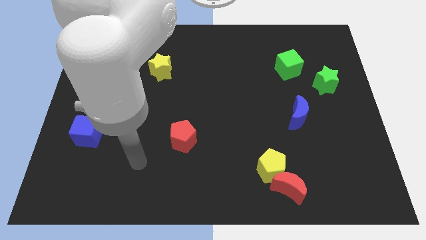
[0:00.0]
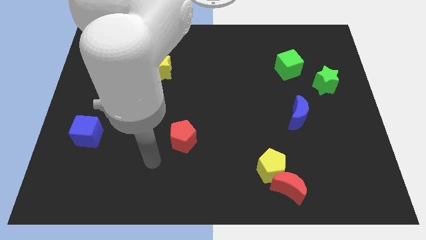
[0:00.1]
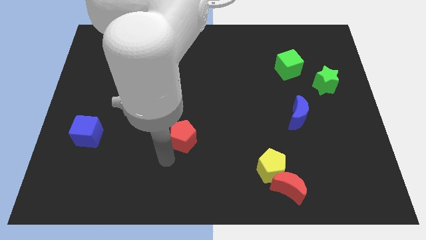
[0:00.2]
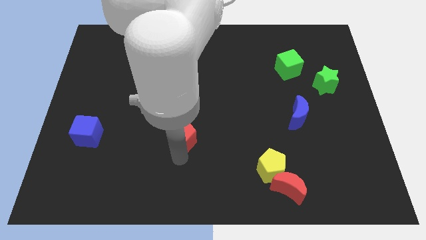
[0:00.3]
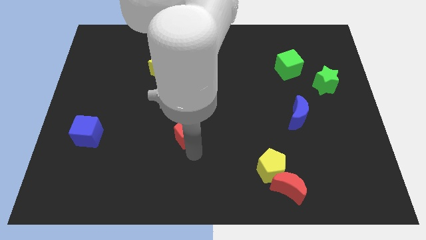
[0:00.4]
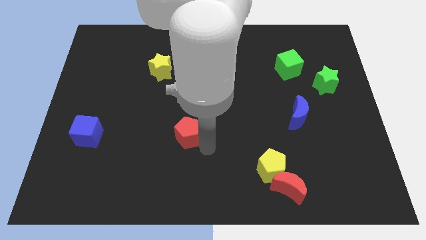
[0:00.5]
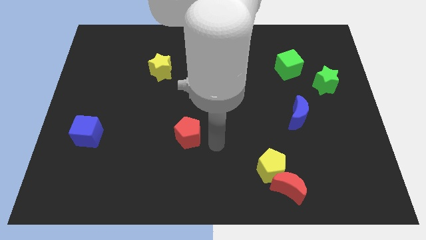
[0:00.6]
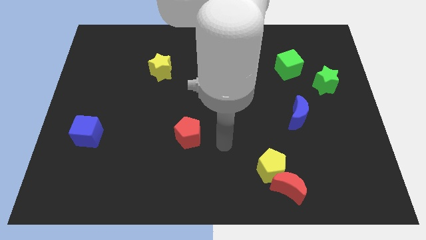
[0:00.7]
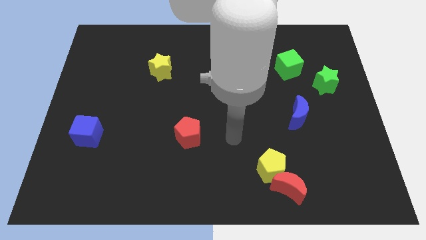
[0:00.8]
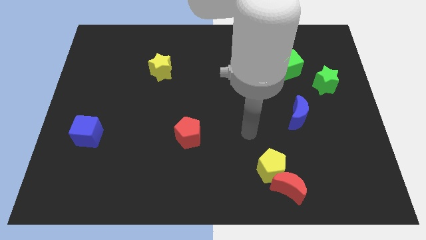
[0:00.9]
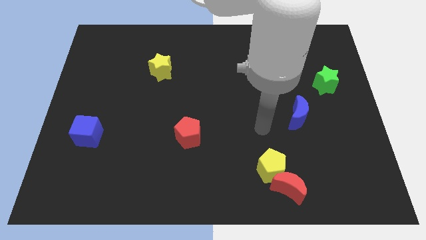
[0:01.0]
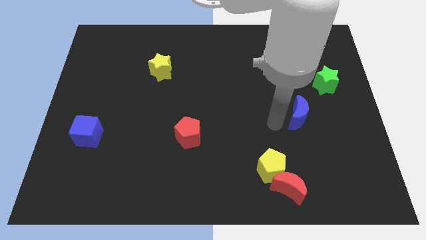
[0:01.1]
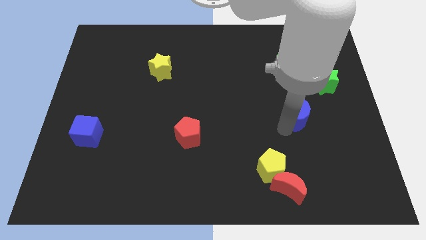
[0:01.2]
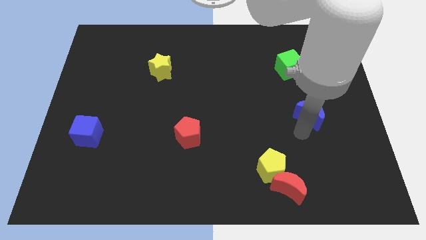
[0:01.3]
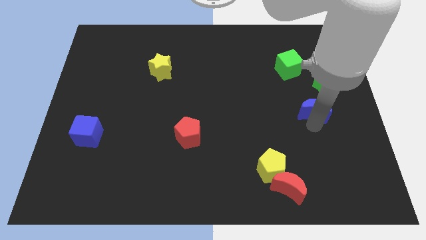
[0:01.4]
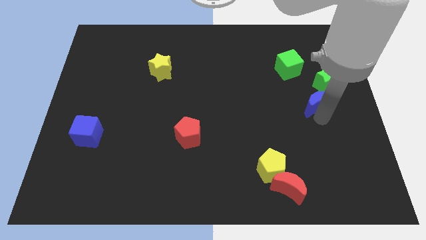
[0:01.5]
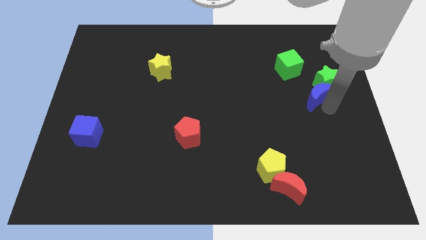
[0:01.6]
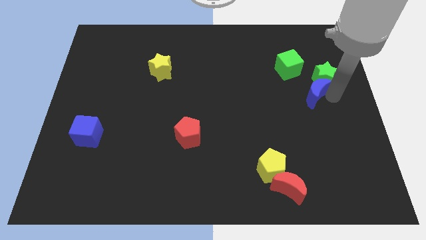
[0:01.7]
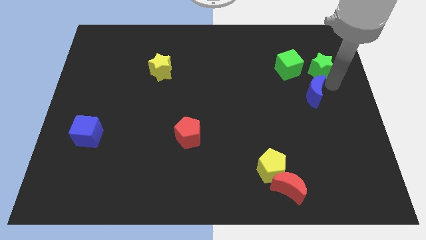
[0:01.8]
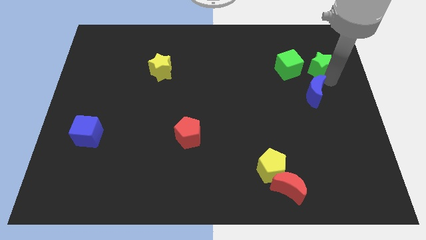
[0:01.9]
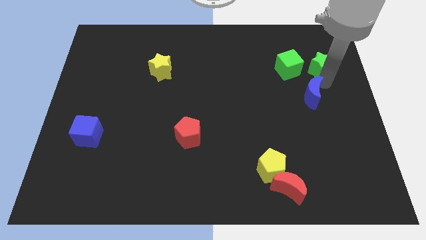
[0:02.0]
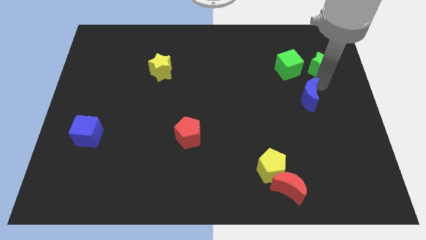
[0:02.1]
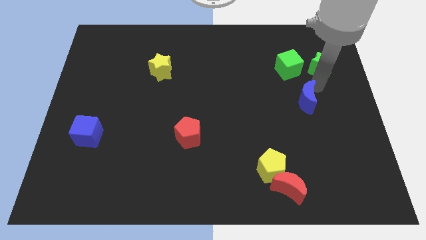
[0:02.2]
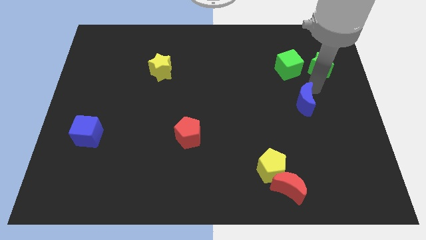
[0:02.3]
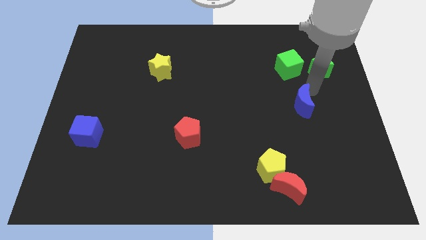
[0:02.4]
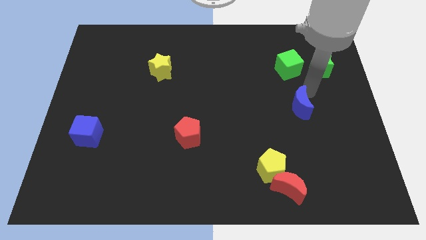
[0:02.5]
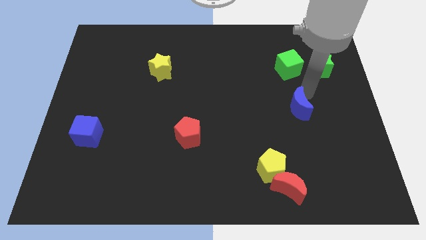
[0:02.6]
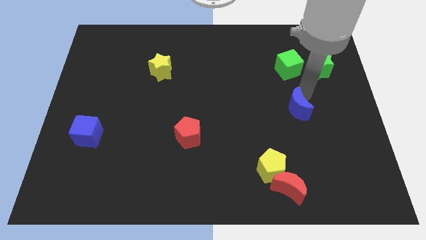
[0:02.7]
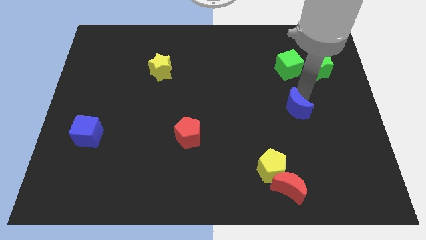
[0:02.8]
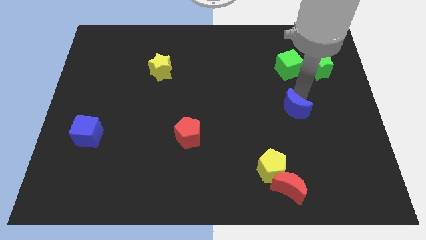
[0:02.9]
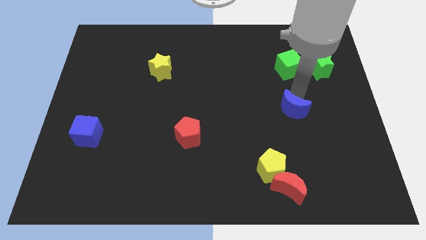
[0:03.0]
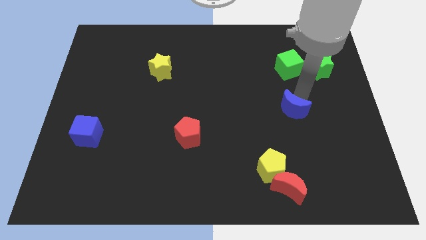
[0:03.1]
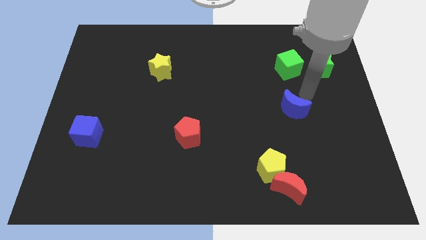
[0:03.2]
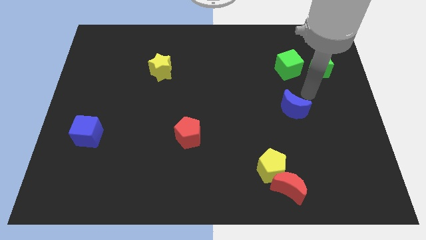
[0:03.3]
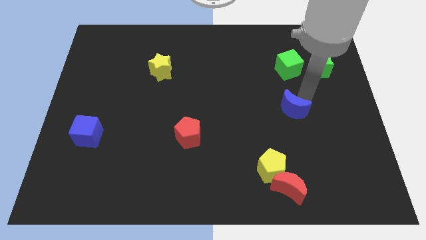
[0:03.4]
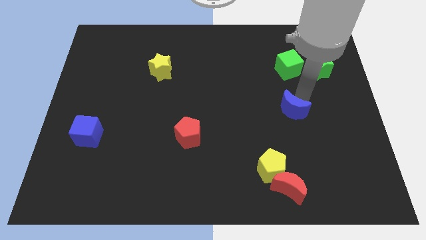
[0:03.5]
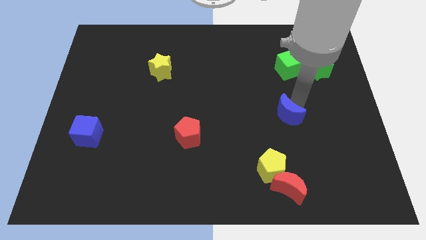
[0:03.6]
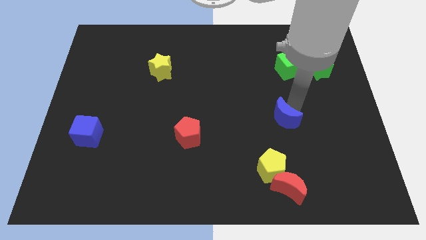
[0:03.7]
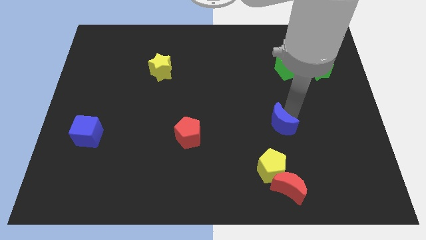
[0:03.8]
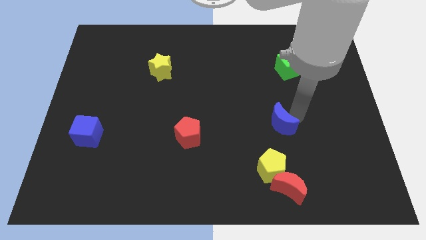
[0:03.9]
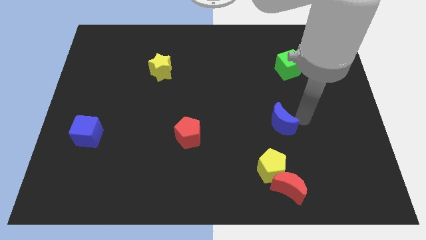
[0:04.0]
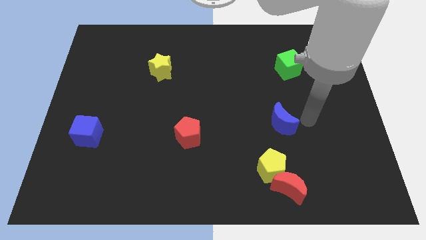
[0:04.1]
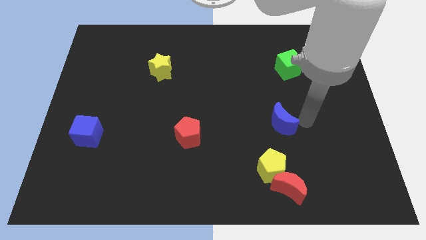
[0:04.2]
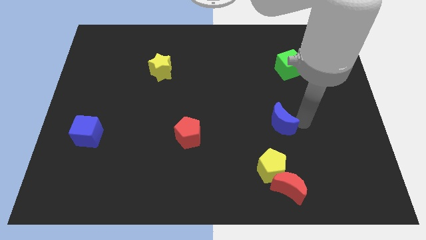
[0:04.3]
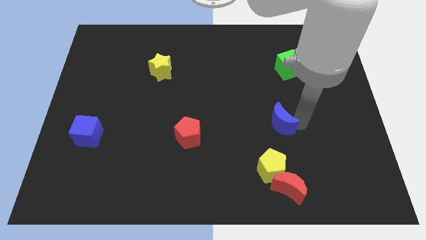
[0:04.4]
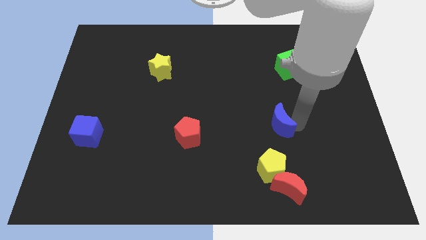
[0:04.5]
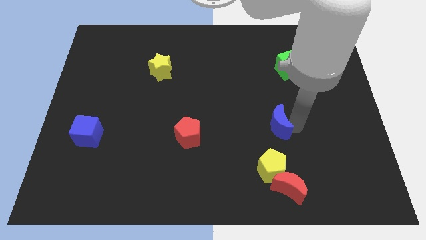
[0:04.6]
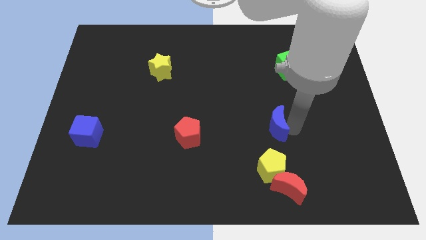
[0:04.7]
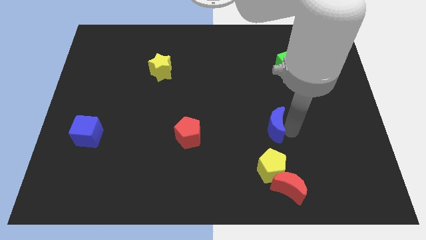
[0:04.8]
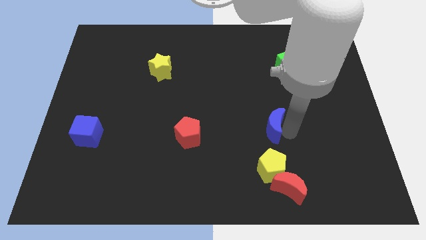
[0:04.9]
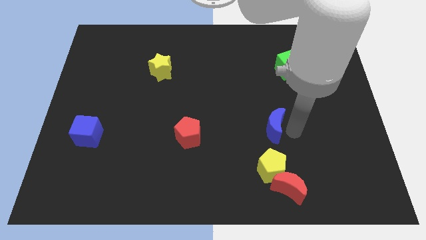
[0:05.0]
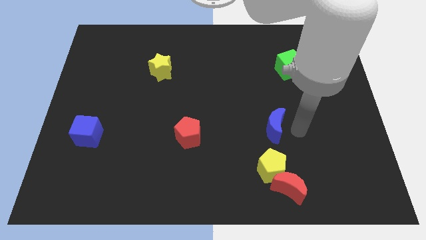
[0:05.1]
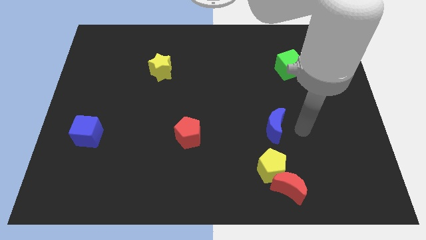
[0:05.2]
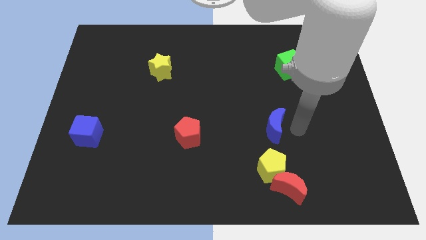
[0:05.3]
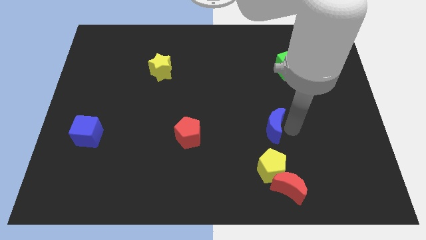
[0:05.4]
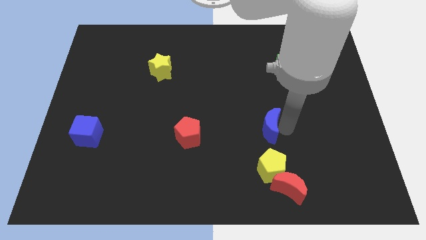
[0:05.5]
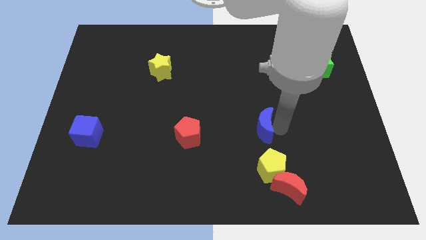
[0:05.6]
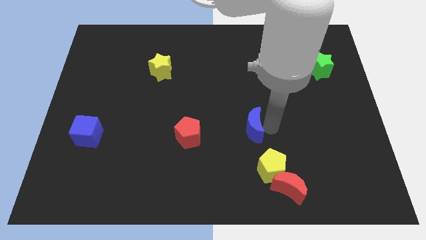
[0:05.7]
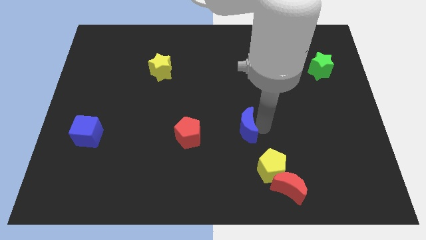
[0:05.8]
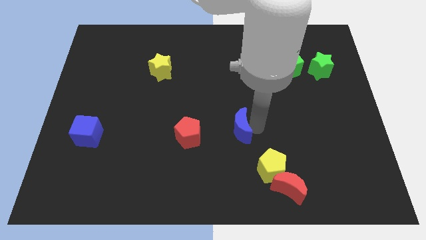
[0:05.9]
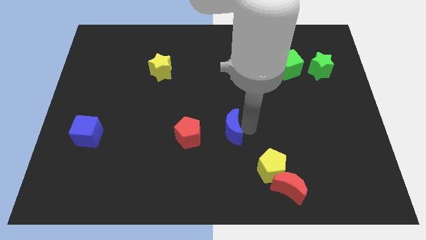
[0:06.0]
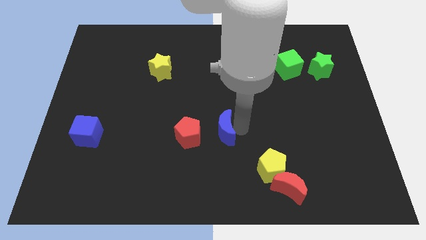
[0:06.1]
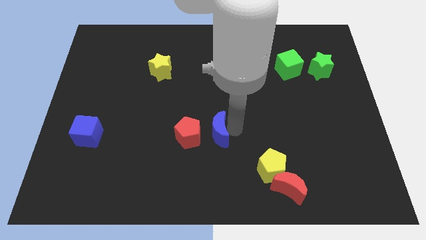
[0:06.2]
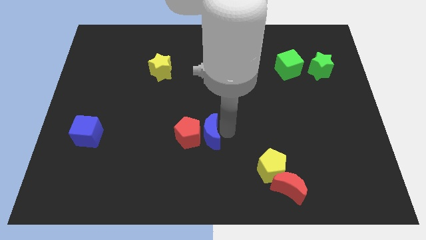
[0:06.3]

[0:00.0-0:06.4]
push the blue moon next to the red pentagon

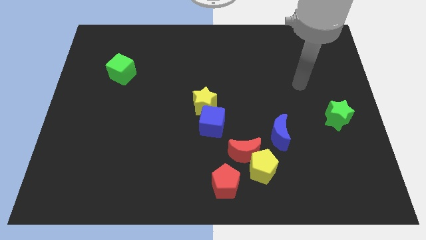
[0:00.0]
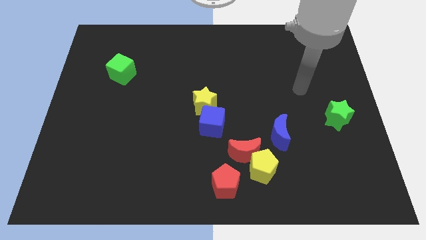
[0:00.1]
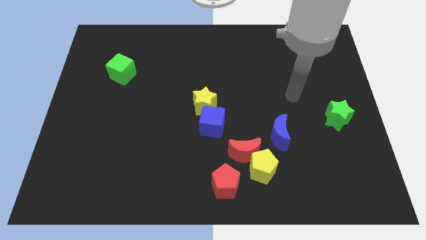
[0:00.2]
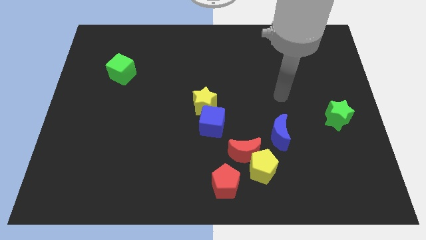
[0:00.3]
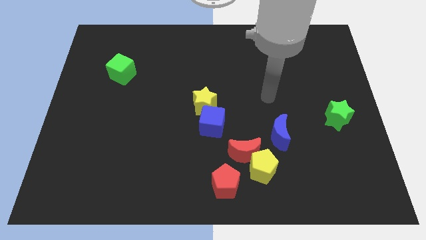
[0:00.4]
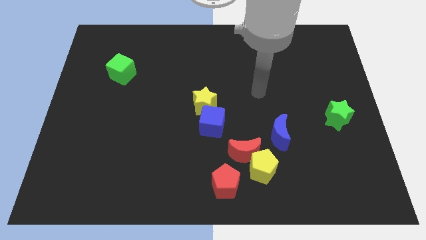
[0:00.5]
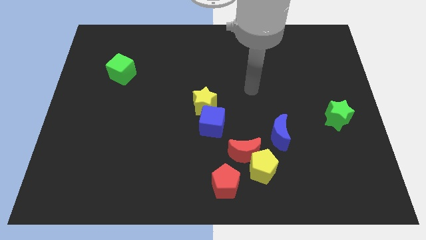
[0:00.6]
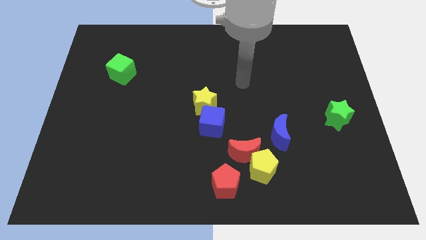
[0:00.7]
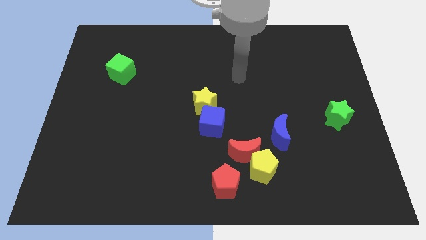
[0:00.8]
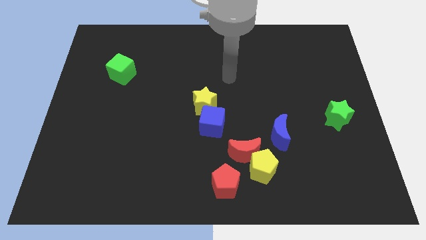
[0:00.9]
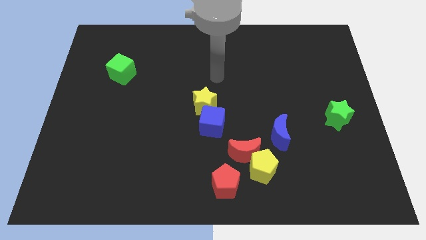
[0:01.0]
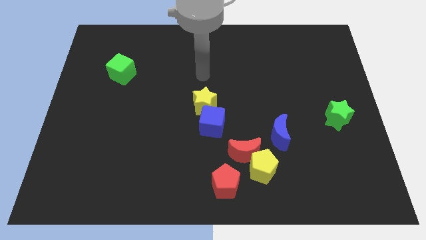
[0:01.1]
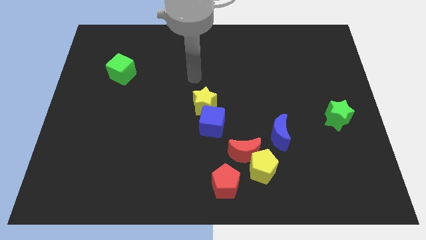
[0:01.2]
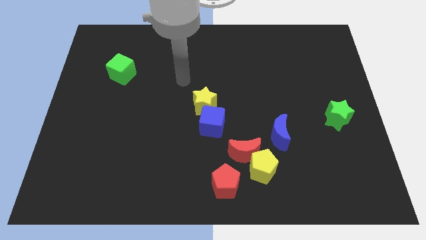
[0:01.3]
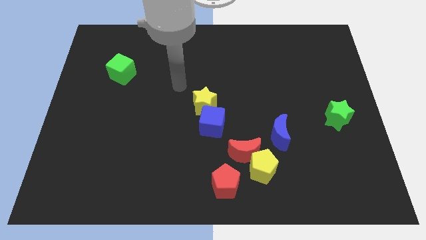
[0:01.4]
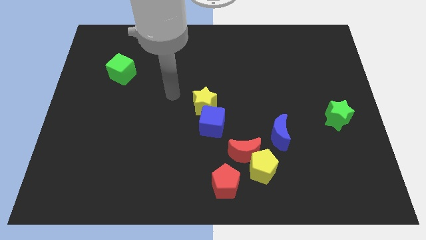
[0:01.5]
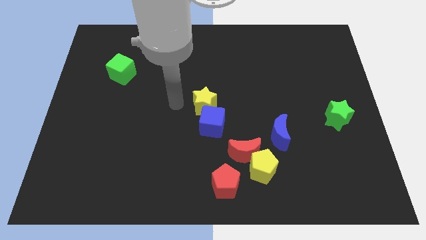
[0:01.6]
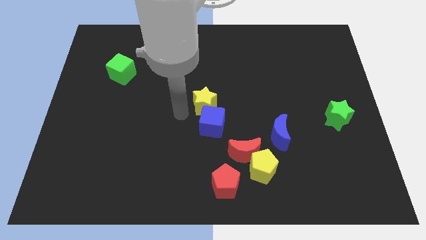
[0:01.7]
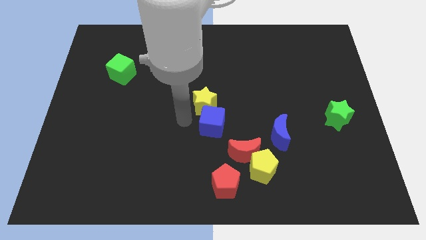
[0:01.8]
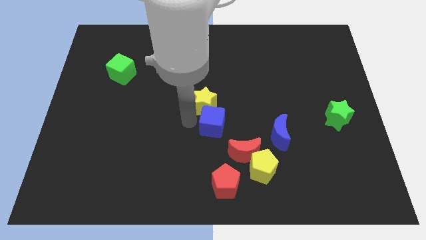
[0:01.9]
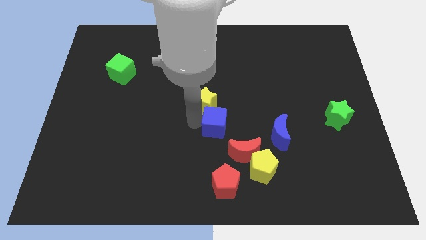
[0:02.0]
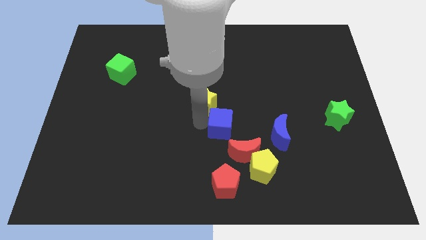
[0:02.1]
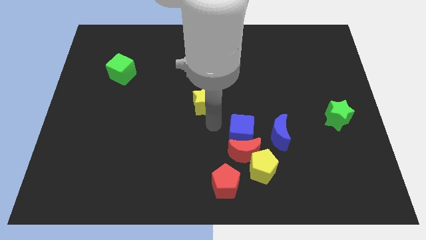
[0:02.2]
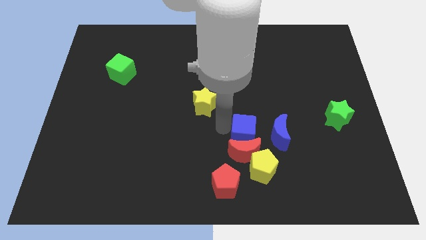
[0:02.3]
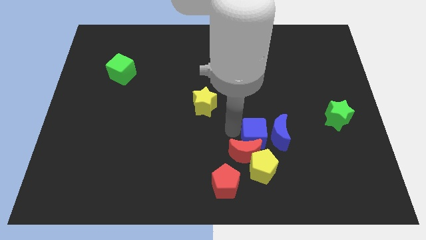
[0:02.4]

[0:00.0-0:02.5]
push the blue cube close to the blue moon
